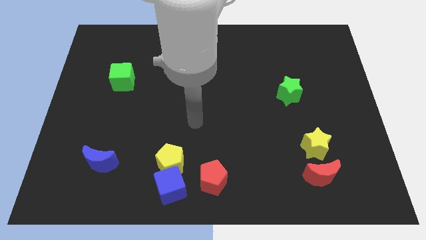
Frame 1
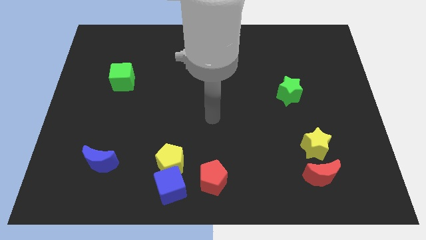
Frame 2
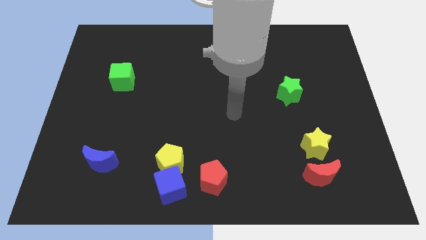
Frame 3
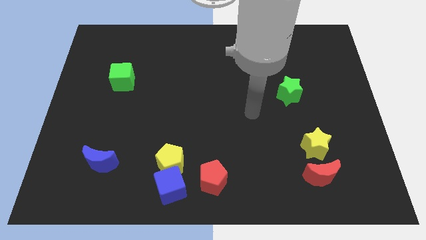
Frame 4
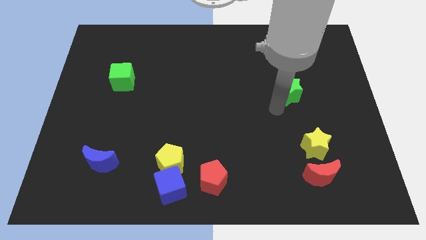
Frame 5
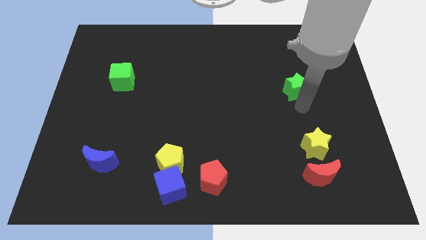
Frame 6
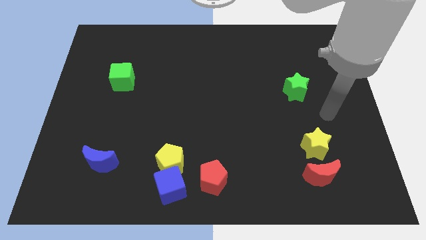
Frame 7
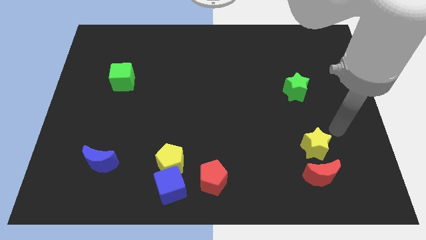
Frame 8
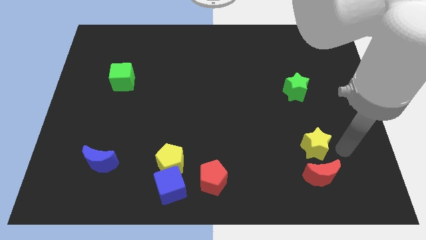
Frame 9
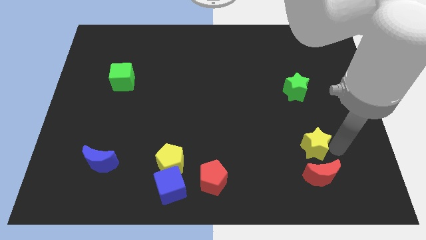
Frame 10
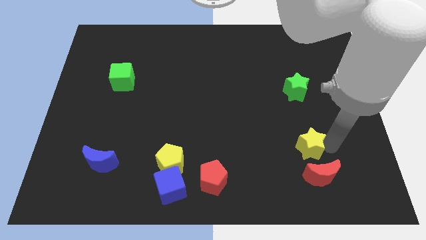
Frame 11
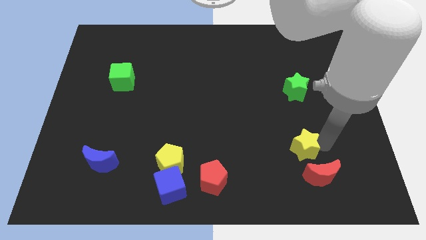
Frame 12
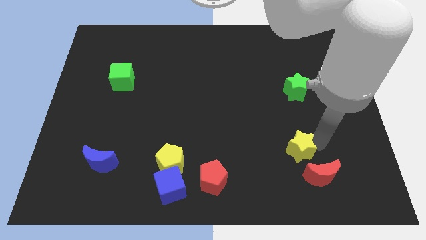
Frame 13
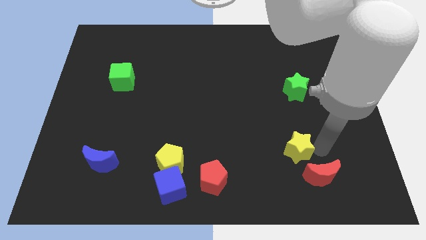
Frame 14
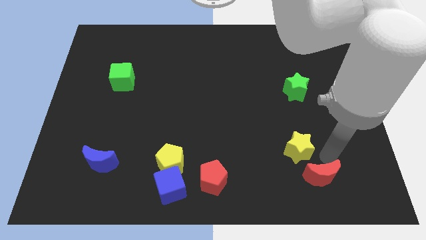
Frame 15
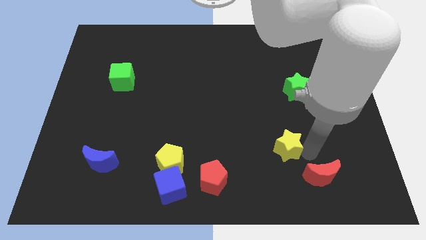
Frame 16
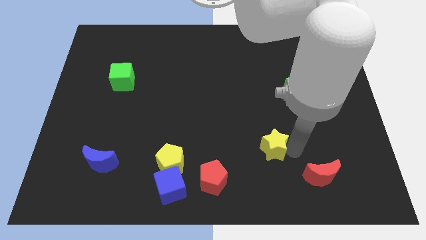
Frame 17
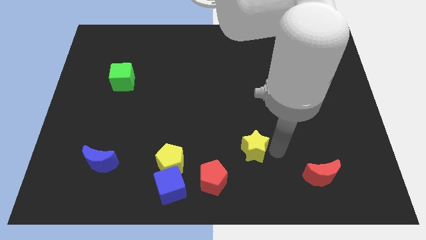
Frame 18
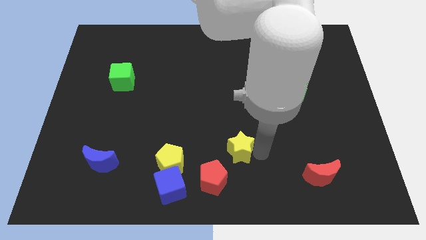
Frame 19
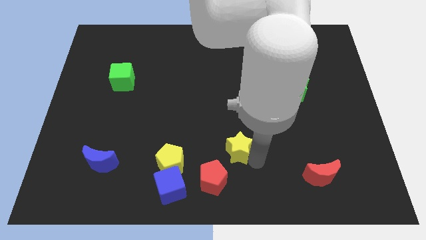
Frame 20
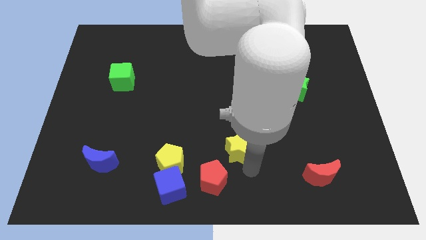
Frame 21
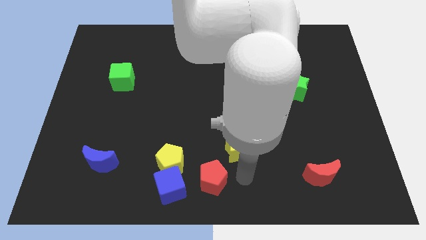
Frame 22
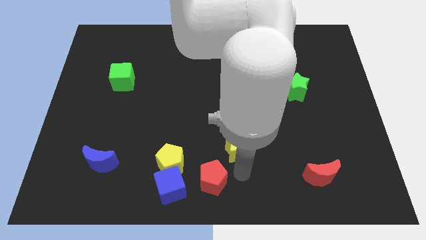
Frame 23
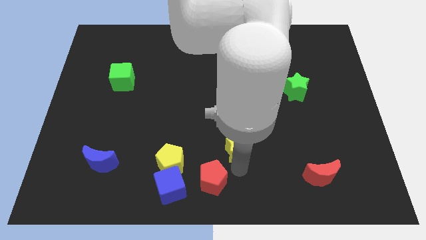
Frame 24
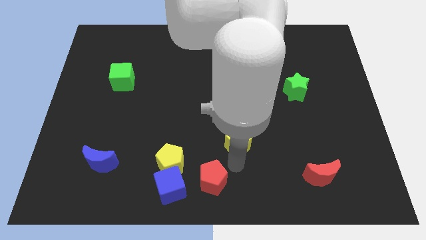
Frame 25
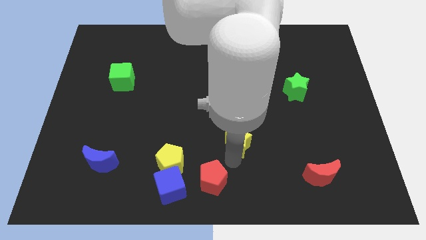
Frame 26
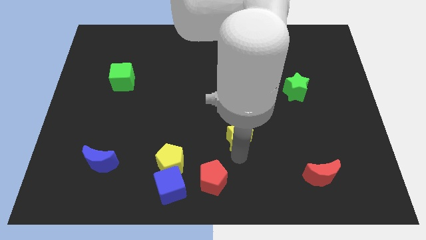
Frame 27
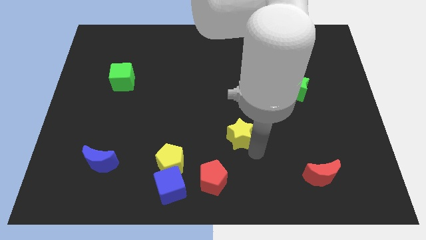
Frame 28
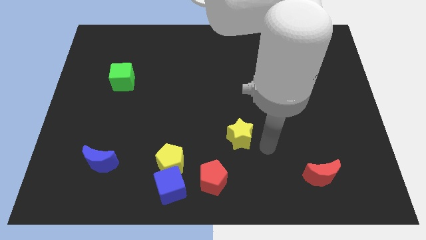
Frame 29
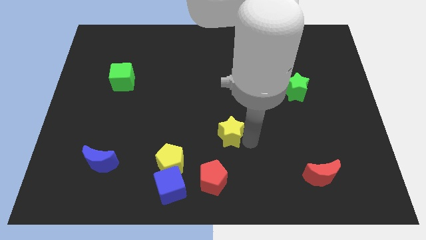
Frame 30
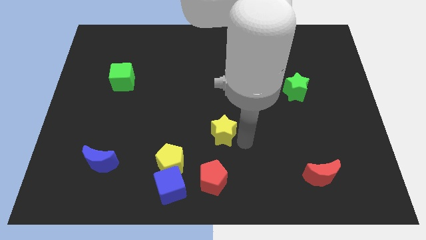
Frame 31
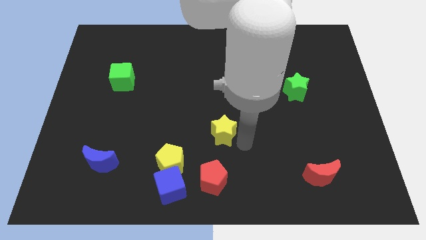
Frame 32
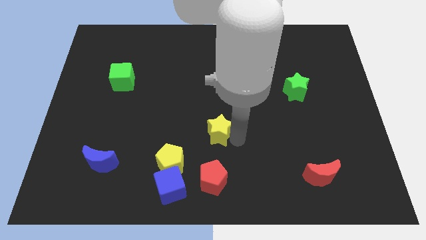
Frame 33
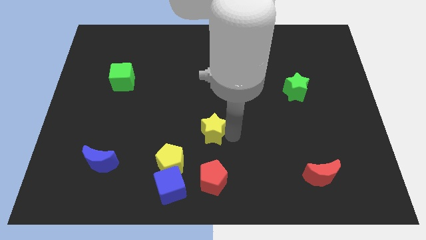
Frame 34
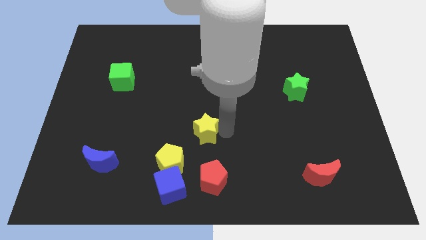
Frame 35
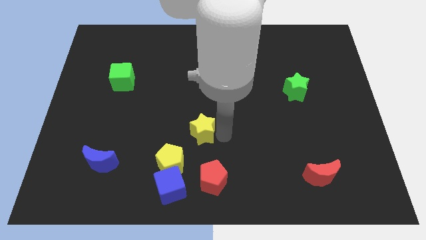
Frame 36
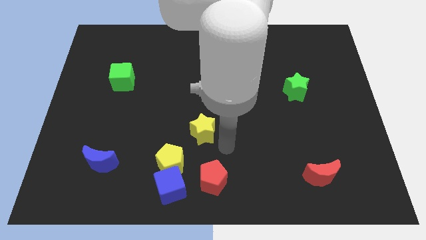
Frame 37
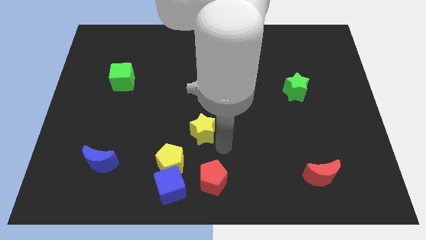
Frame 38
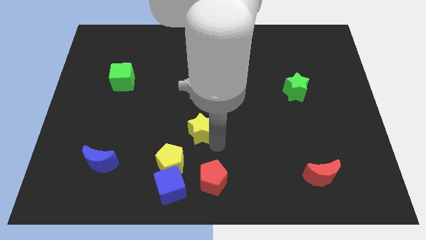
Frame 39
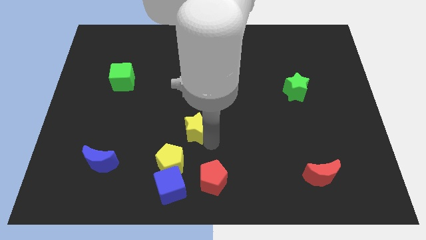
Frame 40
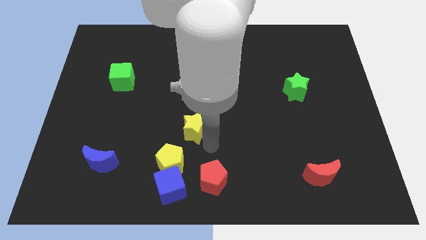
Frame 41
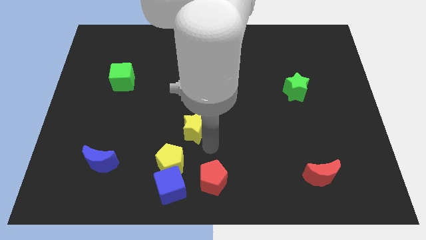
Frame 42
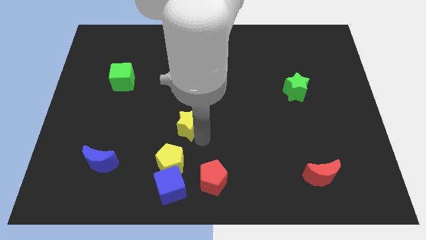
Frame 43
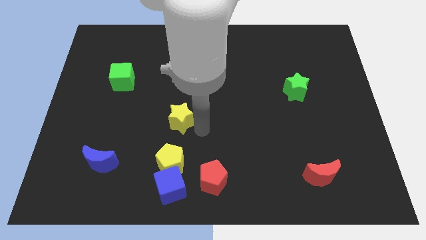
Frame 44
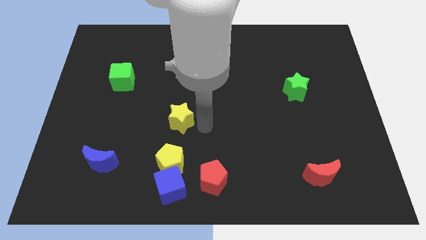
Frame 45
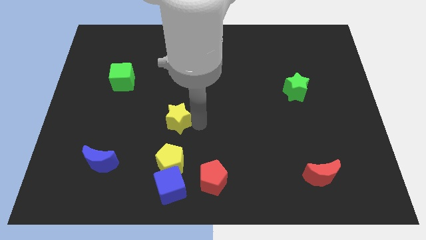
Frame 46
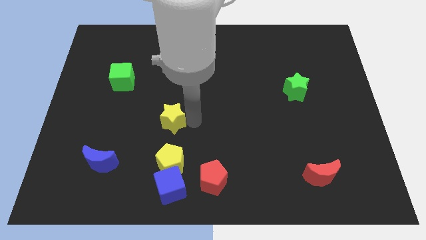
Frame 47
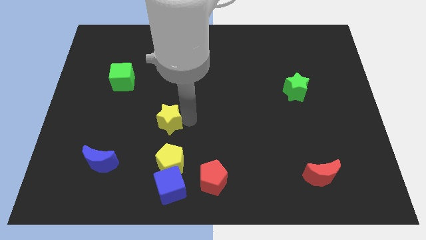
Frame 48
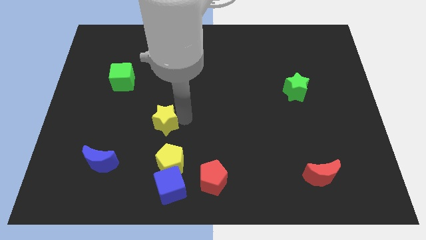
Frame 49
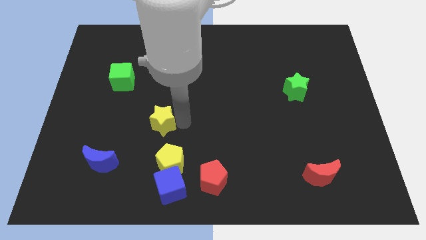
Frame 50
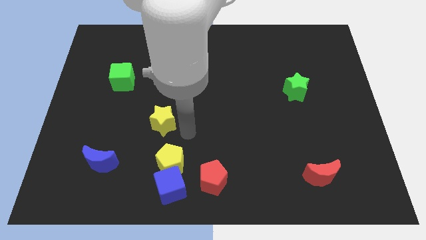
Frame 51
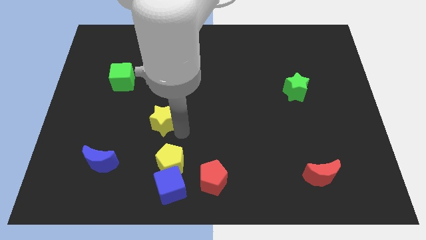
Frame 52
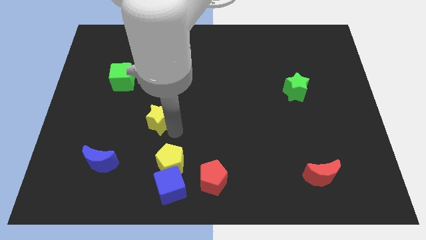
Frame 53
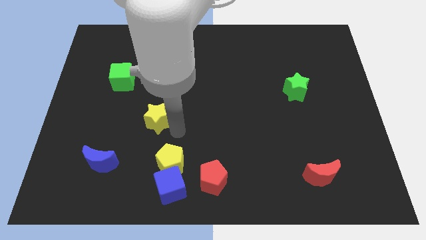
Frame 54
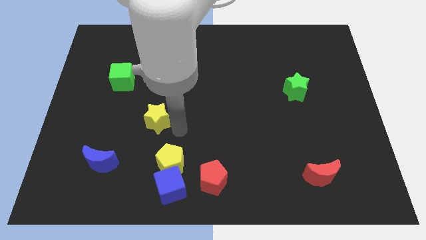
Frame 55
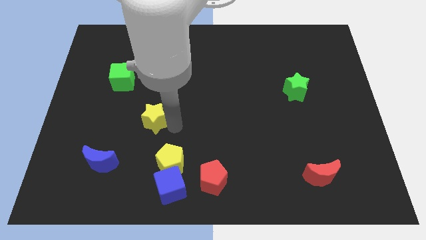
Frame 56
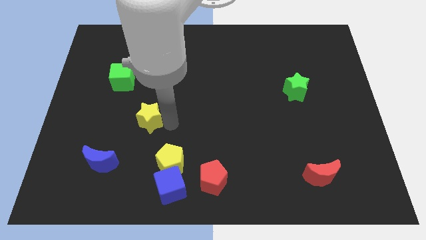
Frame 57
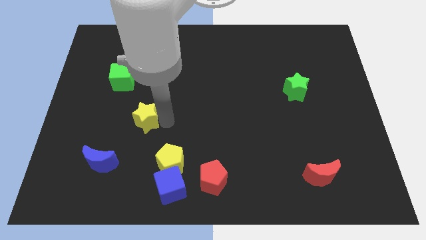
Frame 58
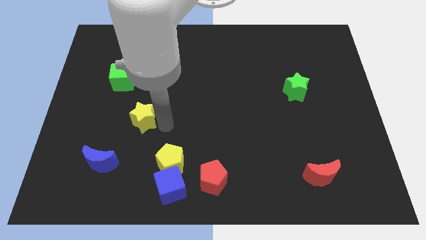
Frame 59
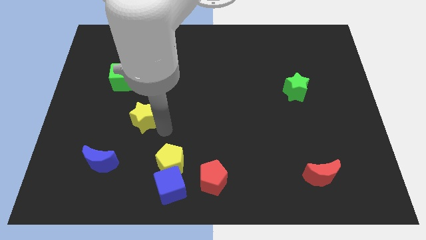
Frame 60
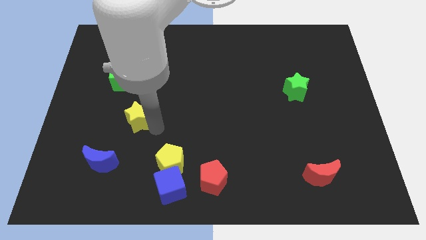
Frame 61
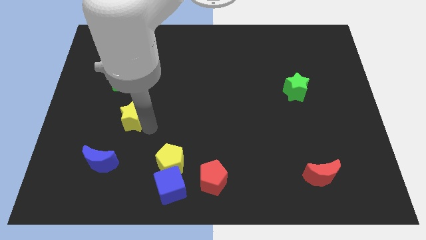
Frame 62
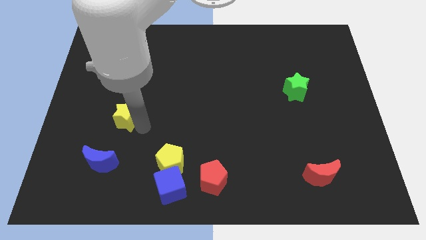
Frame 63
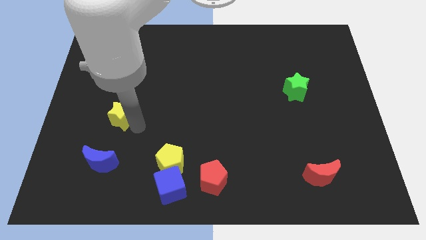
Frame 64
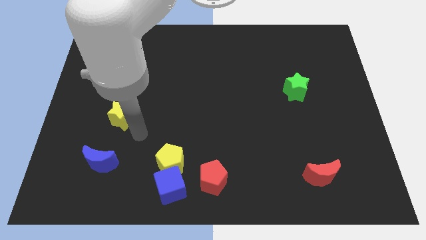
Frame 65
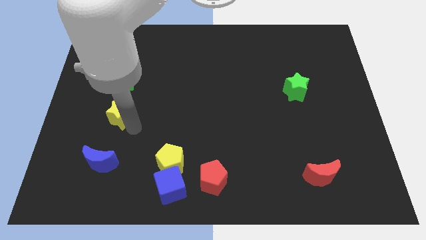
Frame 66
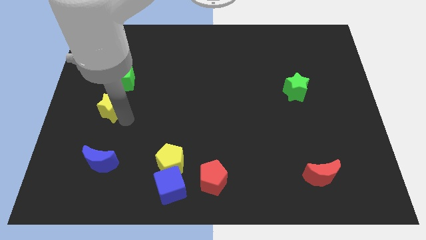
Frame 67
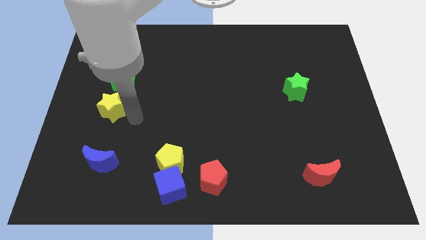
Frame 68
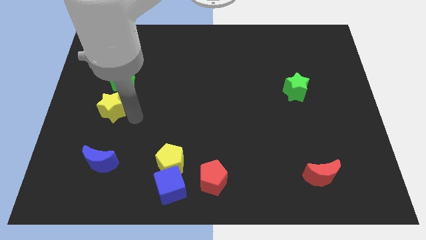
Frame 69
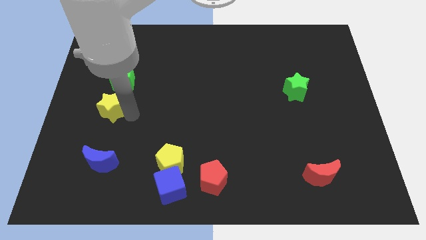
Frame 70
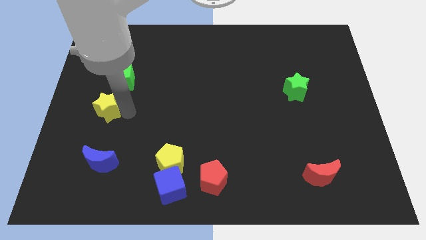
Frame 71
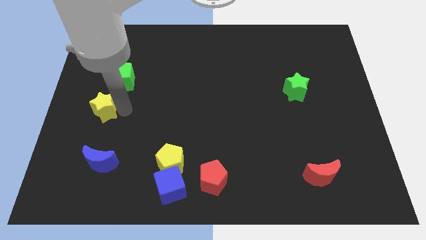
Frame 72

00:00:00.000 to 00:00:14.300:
put the yellow star to the left side
